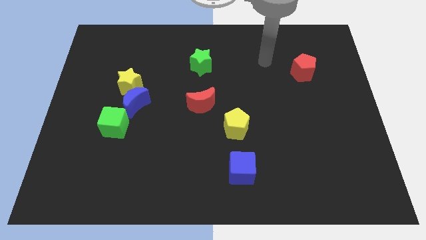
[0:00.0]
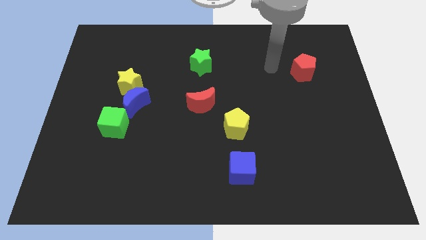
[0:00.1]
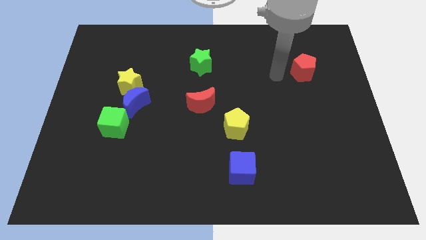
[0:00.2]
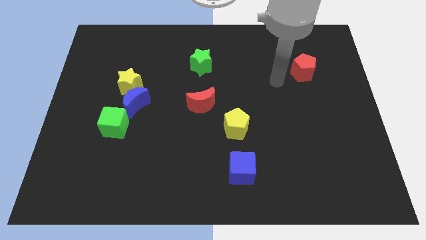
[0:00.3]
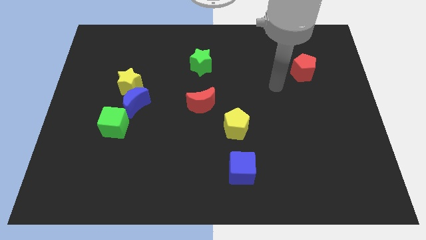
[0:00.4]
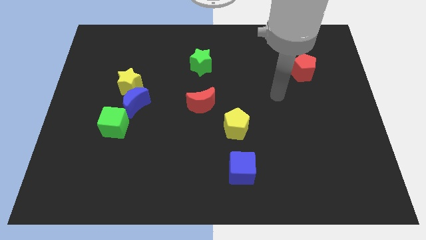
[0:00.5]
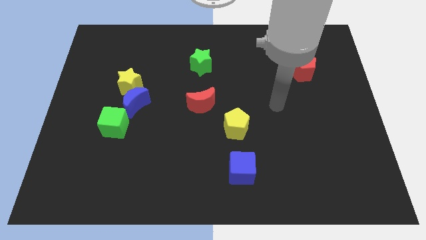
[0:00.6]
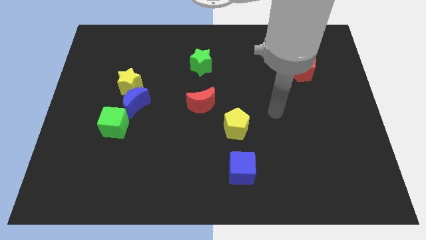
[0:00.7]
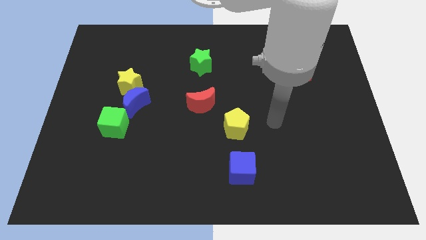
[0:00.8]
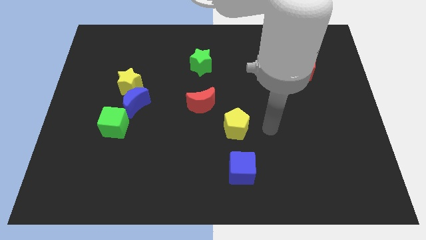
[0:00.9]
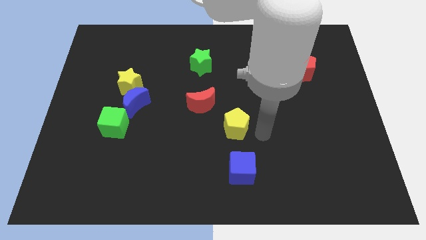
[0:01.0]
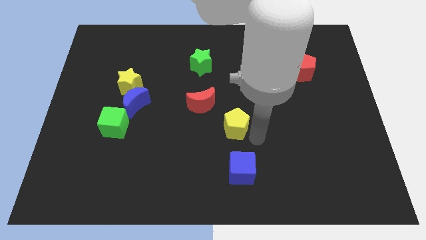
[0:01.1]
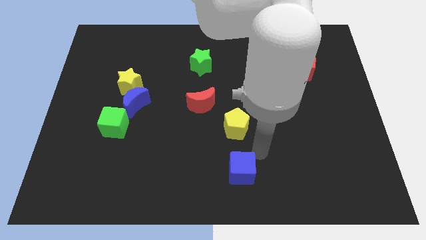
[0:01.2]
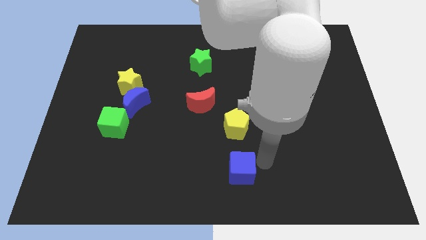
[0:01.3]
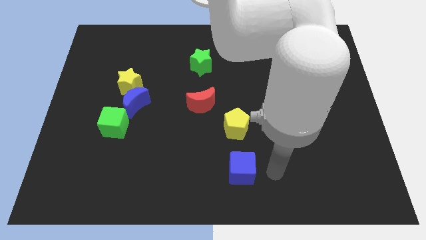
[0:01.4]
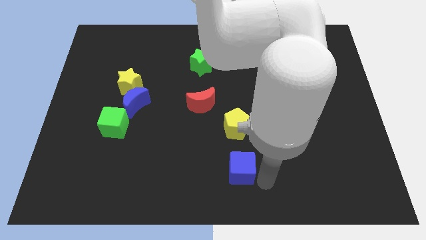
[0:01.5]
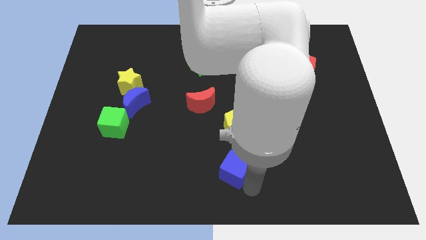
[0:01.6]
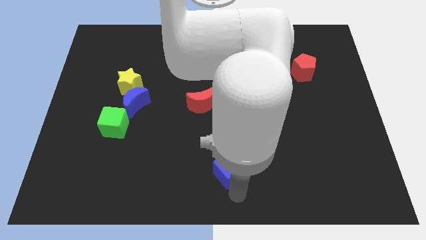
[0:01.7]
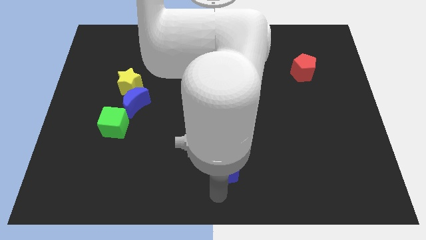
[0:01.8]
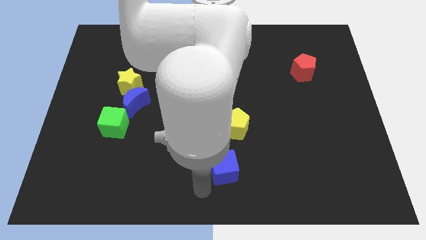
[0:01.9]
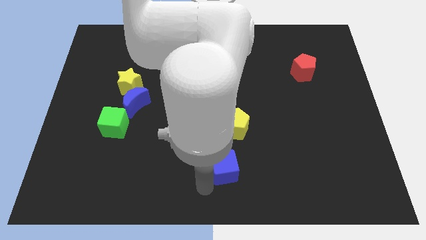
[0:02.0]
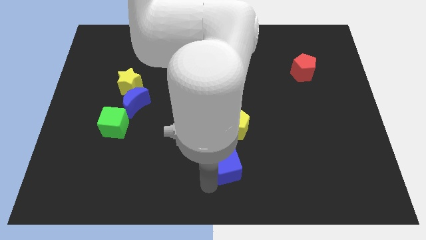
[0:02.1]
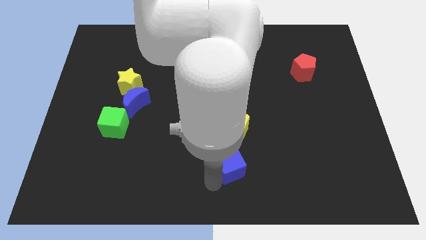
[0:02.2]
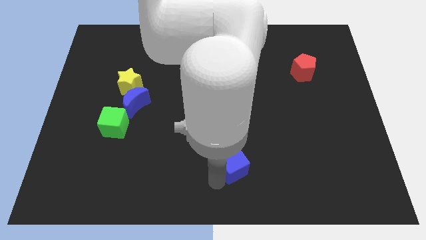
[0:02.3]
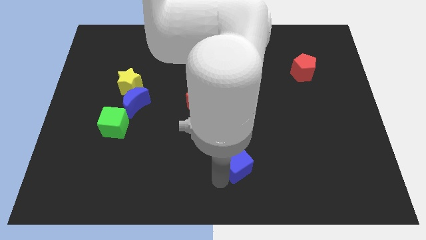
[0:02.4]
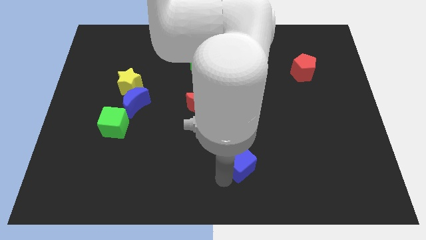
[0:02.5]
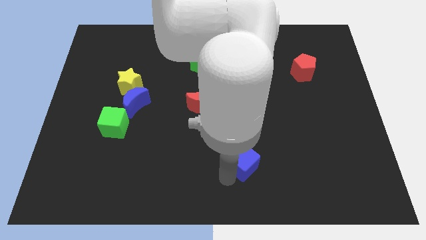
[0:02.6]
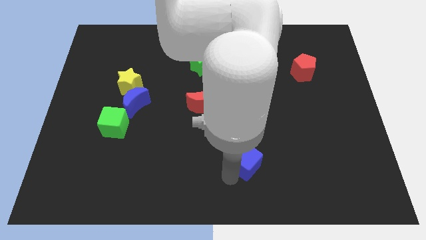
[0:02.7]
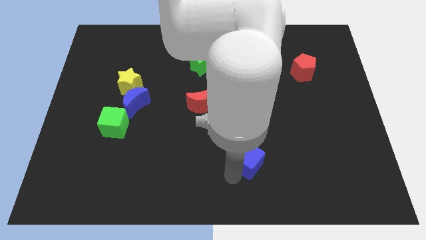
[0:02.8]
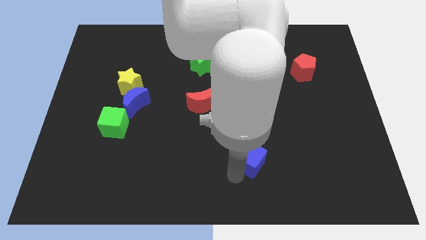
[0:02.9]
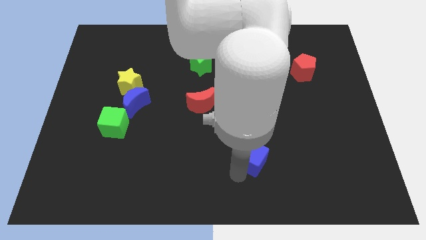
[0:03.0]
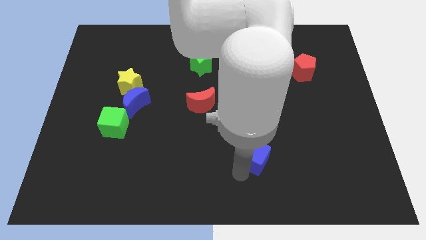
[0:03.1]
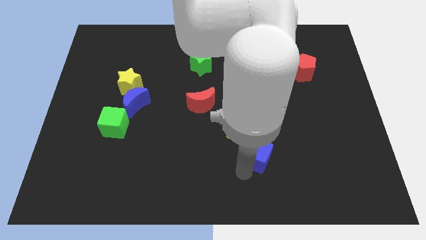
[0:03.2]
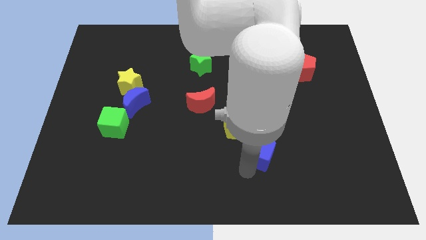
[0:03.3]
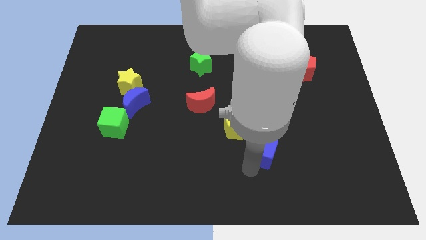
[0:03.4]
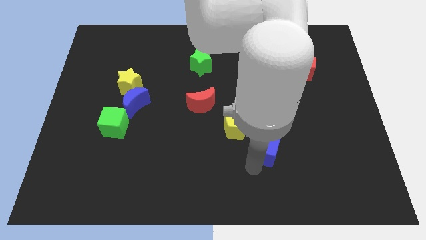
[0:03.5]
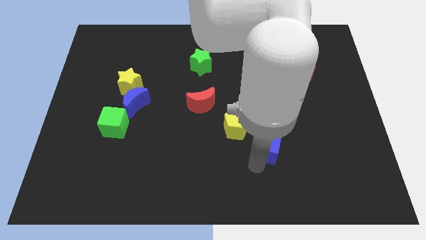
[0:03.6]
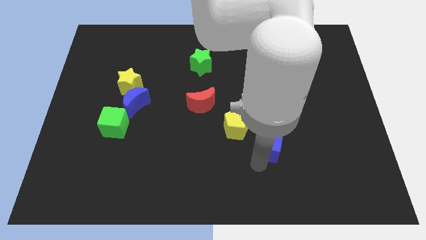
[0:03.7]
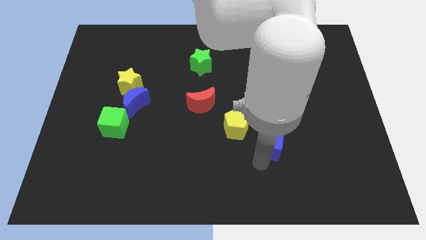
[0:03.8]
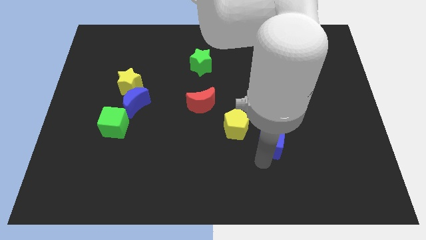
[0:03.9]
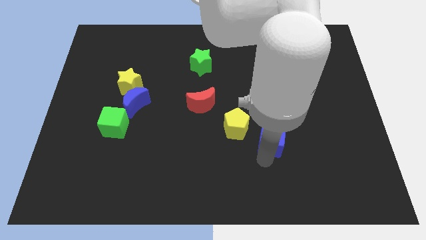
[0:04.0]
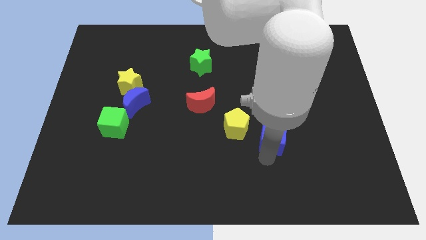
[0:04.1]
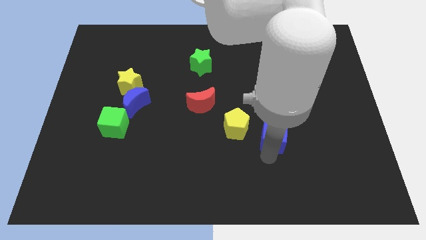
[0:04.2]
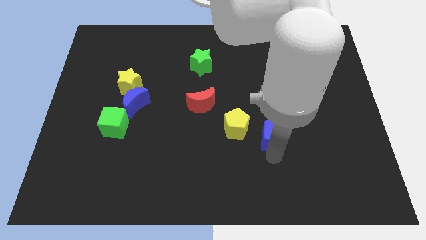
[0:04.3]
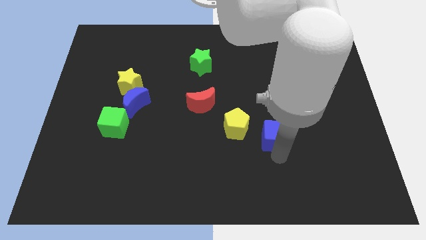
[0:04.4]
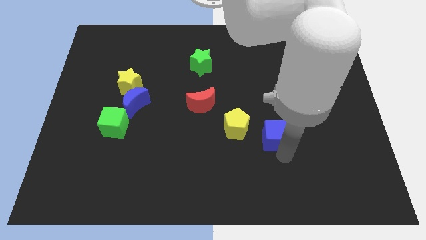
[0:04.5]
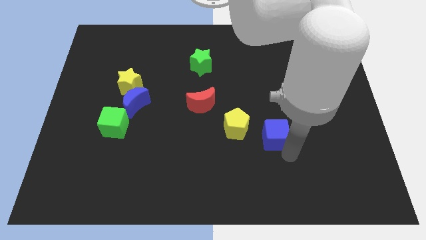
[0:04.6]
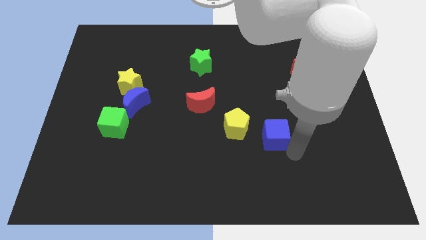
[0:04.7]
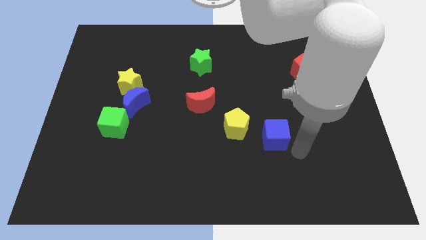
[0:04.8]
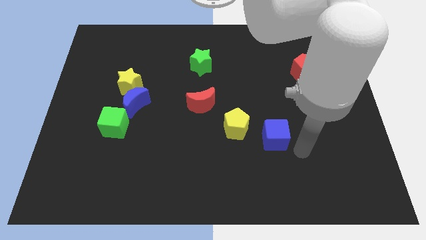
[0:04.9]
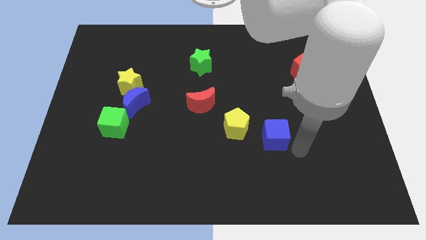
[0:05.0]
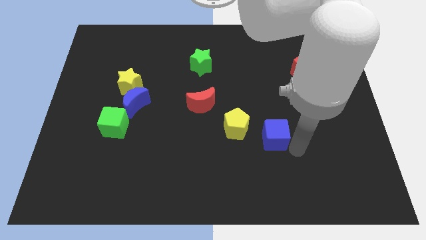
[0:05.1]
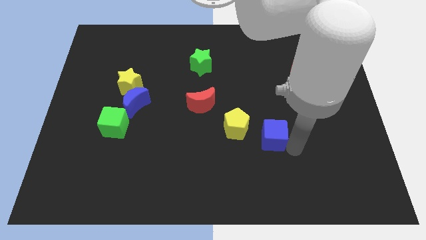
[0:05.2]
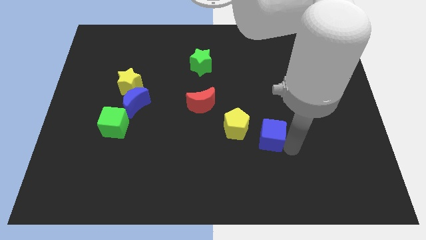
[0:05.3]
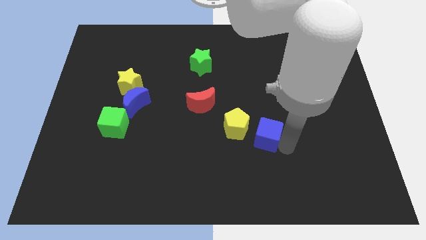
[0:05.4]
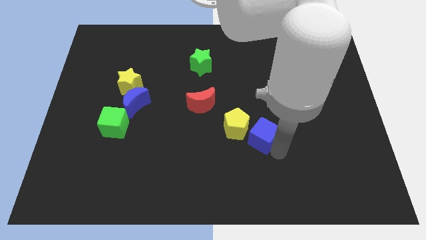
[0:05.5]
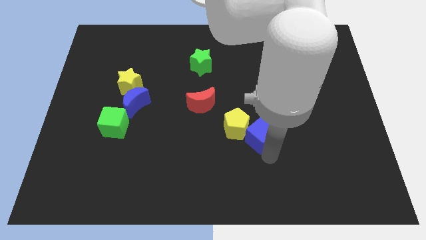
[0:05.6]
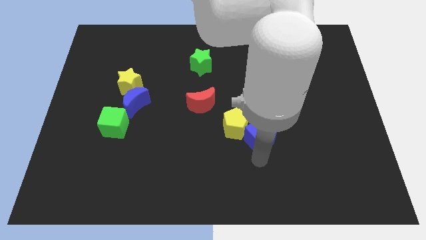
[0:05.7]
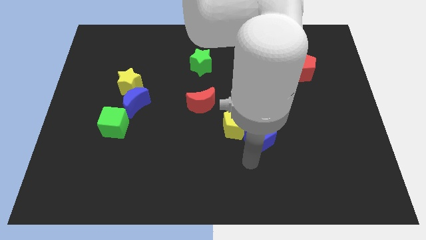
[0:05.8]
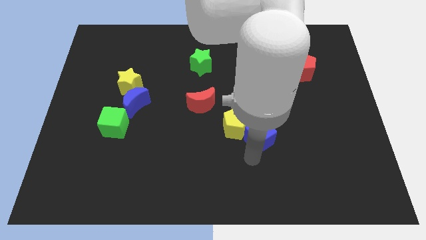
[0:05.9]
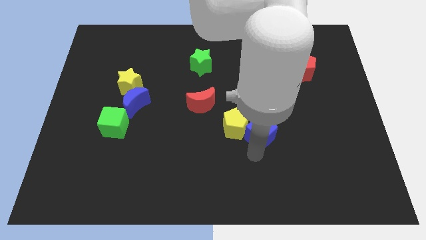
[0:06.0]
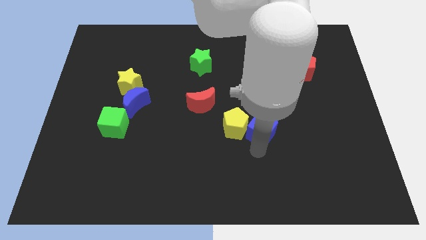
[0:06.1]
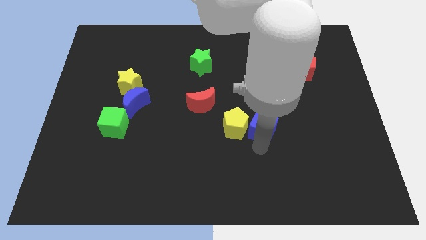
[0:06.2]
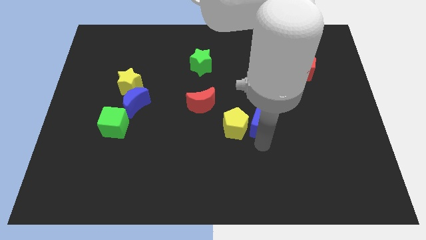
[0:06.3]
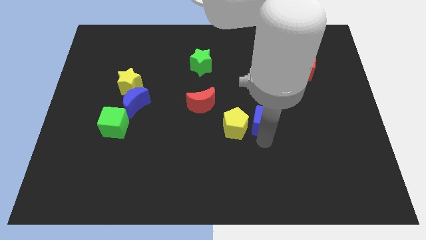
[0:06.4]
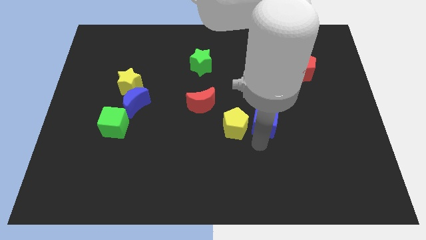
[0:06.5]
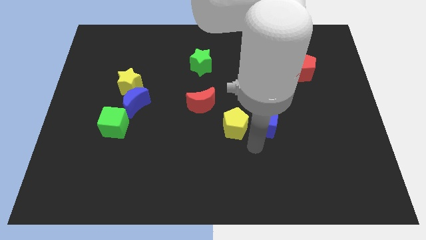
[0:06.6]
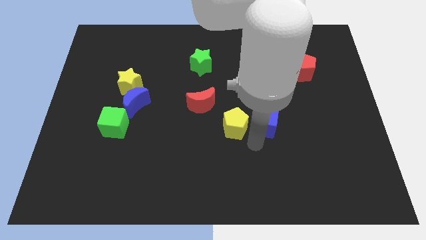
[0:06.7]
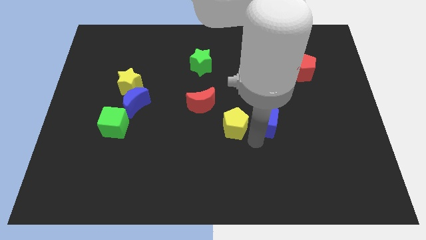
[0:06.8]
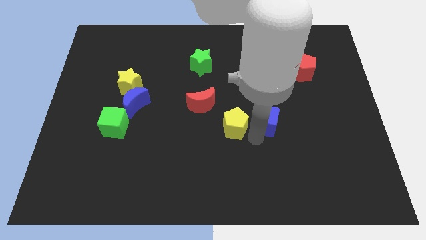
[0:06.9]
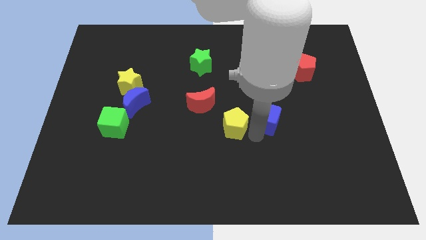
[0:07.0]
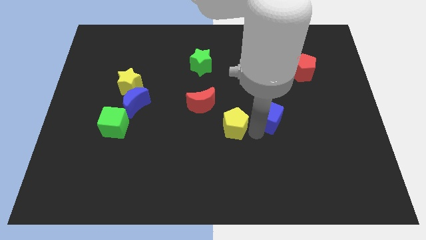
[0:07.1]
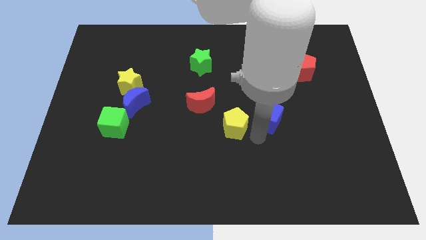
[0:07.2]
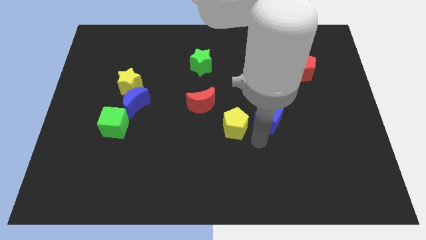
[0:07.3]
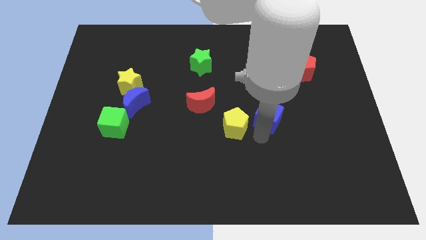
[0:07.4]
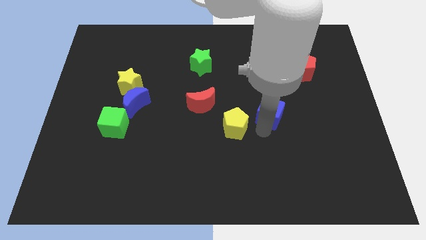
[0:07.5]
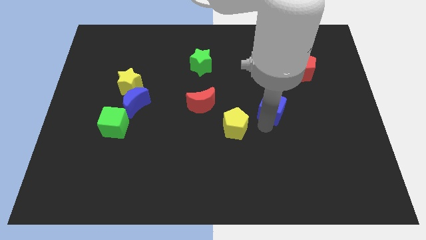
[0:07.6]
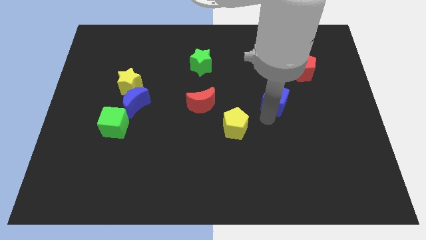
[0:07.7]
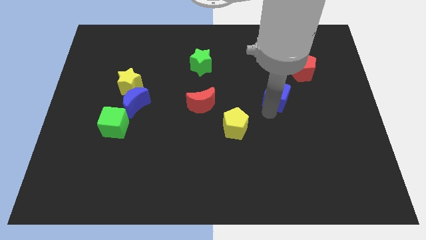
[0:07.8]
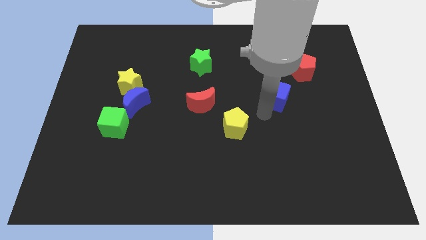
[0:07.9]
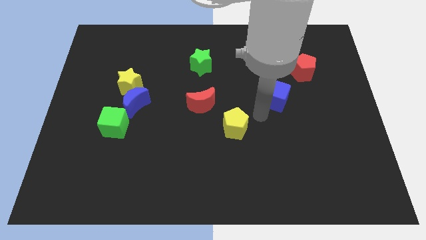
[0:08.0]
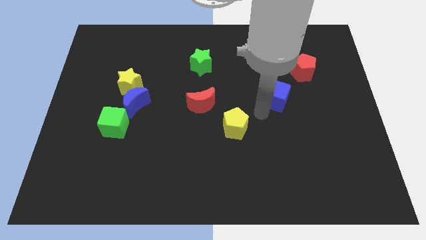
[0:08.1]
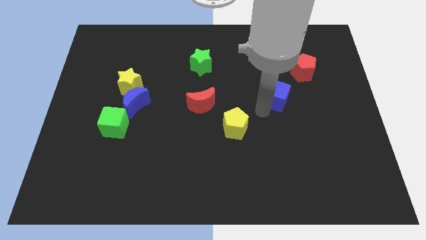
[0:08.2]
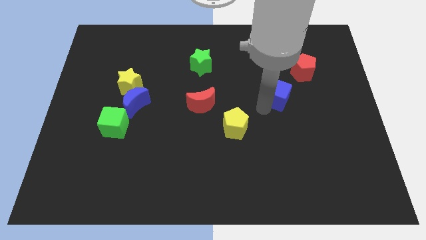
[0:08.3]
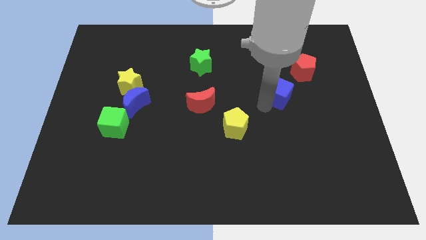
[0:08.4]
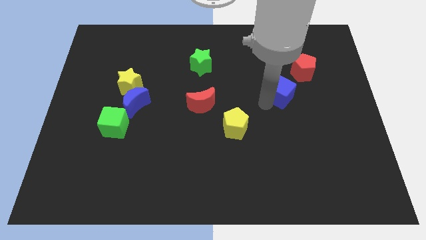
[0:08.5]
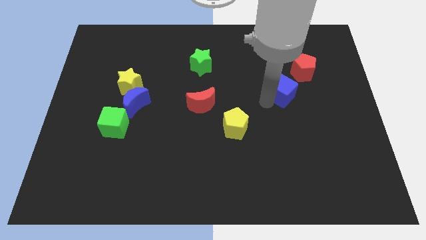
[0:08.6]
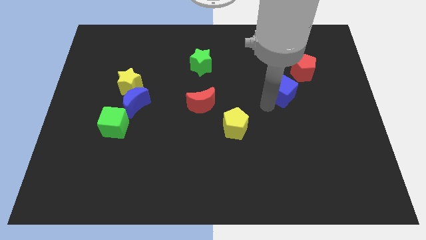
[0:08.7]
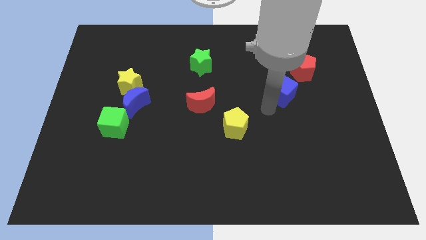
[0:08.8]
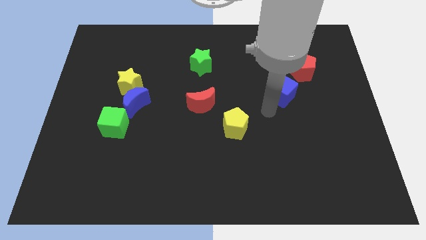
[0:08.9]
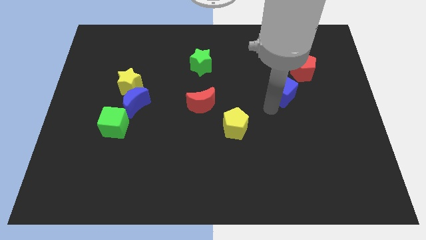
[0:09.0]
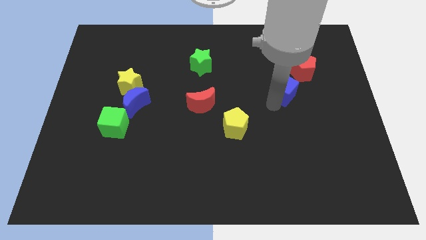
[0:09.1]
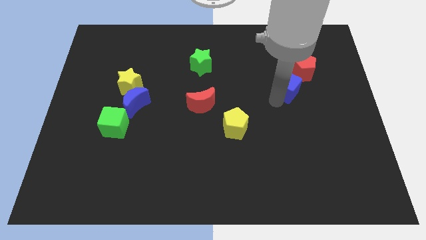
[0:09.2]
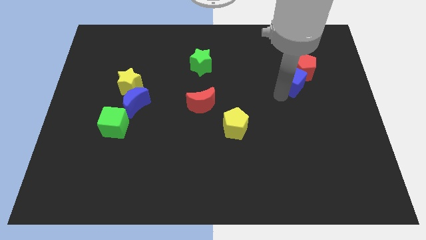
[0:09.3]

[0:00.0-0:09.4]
move the blue cube next to the red pentagon
